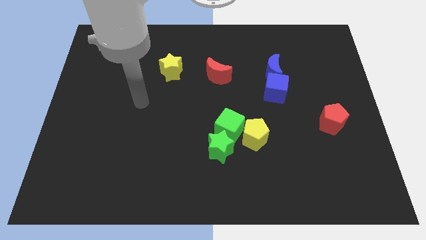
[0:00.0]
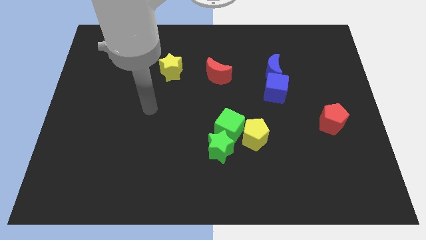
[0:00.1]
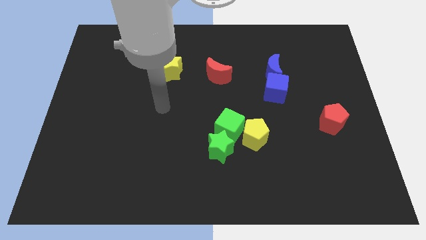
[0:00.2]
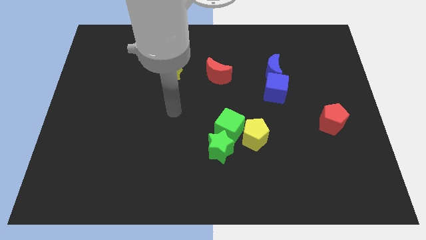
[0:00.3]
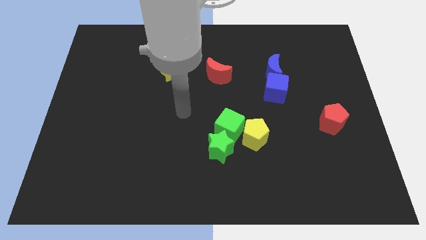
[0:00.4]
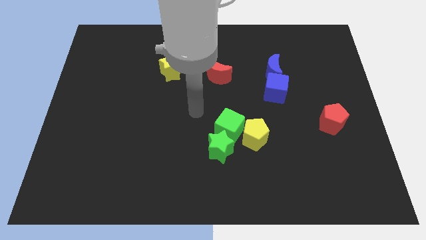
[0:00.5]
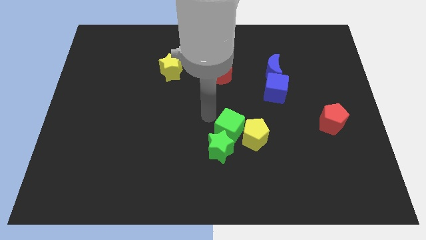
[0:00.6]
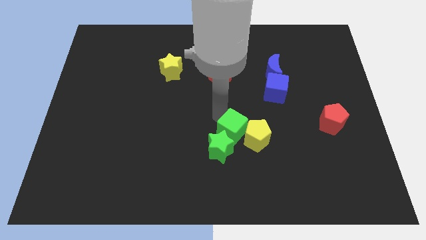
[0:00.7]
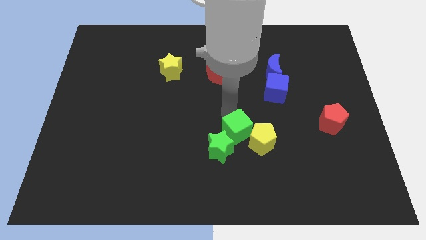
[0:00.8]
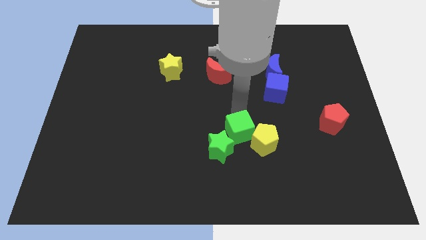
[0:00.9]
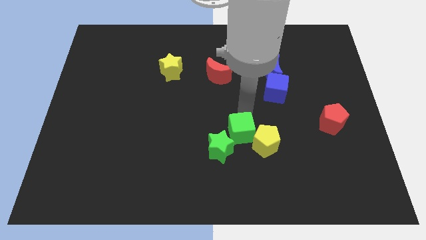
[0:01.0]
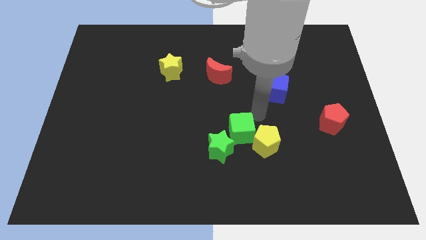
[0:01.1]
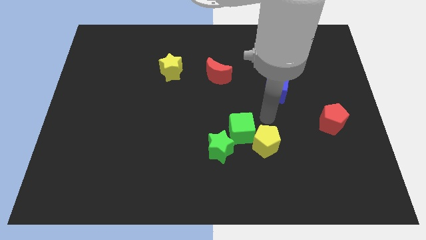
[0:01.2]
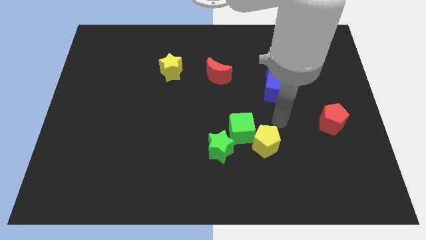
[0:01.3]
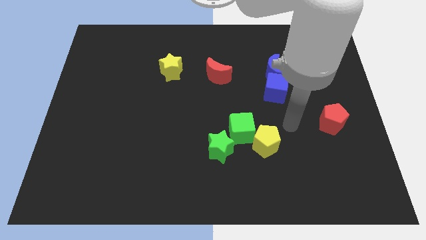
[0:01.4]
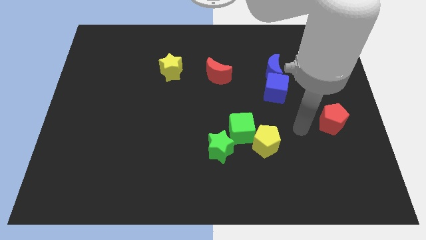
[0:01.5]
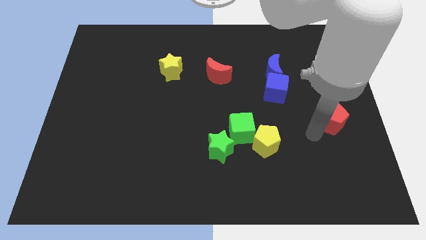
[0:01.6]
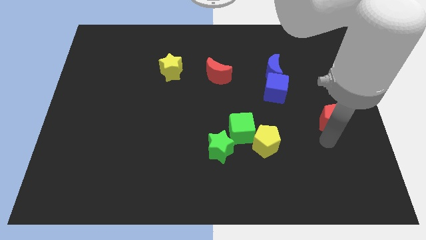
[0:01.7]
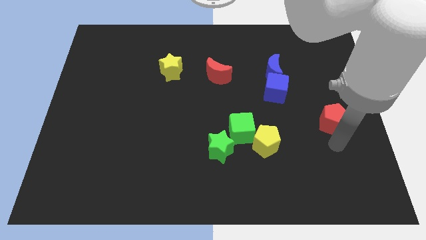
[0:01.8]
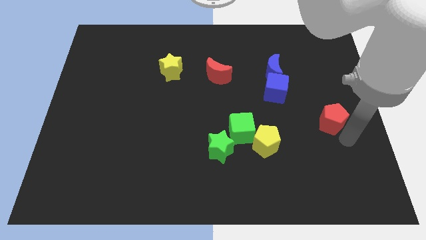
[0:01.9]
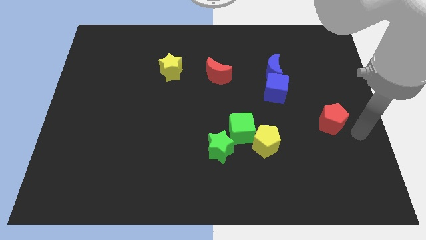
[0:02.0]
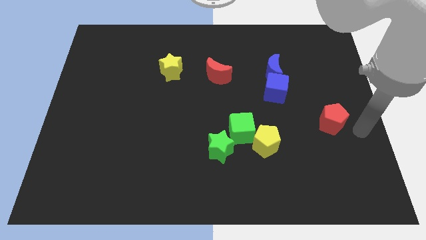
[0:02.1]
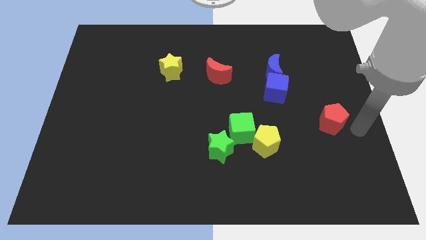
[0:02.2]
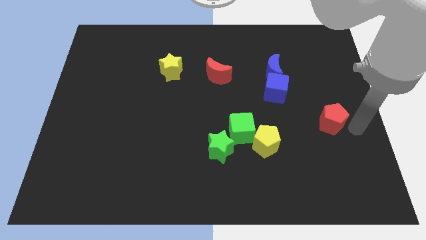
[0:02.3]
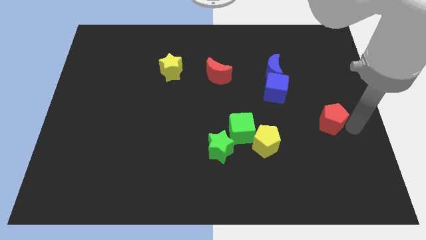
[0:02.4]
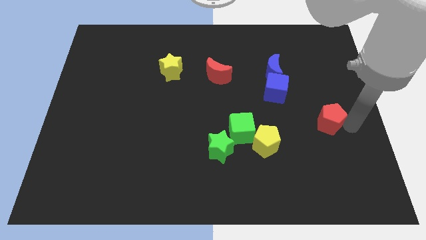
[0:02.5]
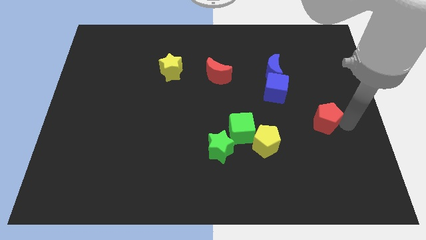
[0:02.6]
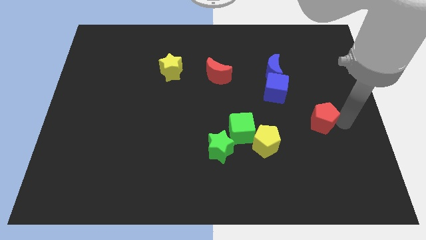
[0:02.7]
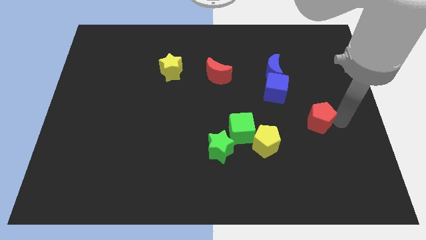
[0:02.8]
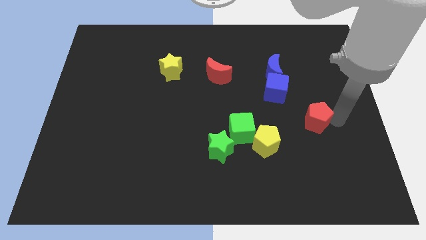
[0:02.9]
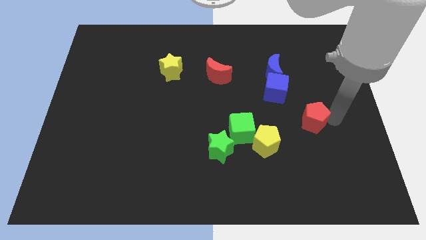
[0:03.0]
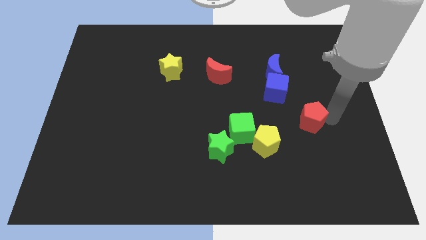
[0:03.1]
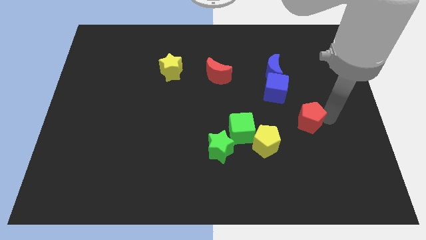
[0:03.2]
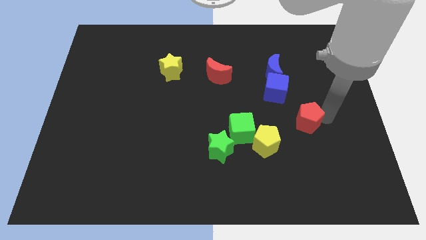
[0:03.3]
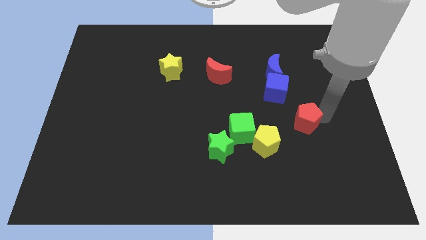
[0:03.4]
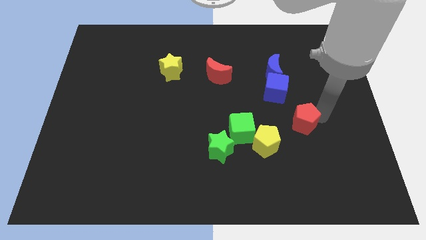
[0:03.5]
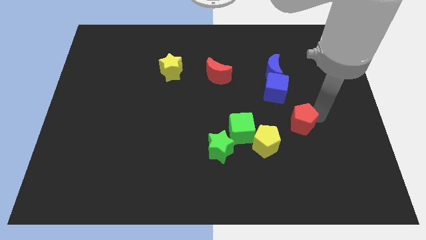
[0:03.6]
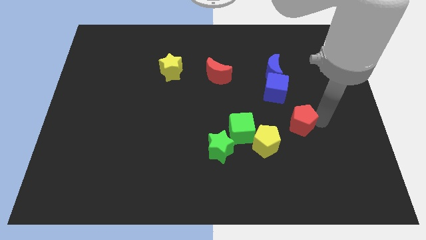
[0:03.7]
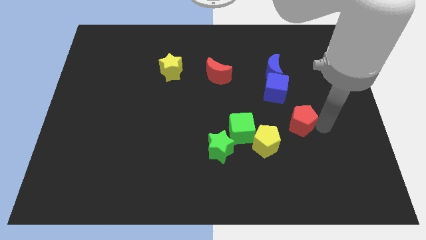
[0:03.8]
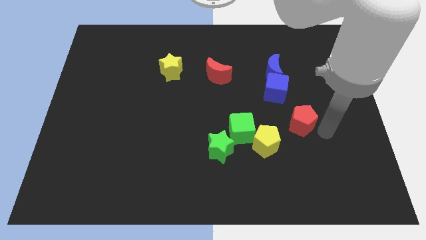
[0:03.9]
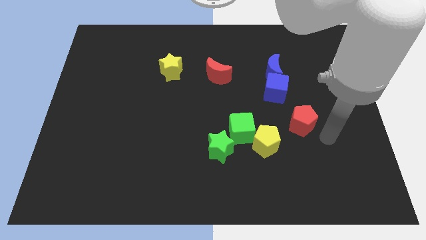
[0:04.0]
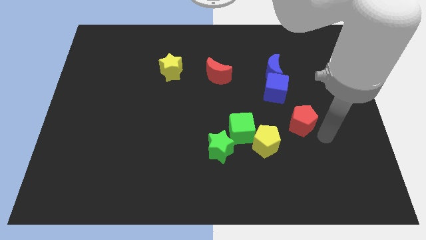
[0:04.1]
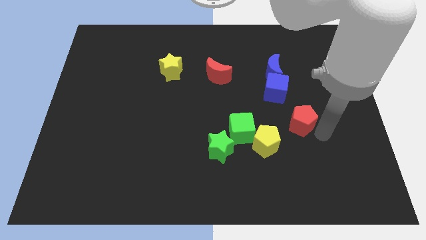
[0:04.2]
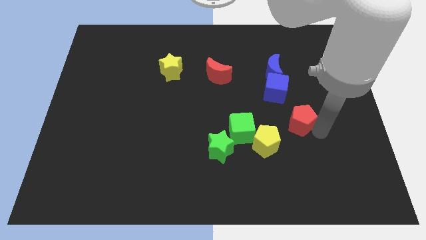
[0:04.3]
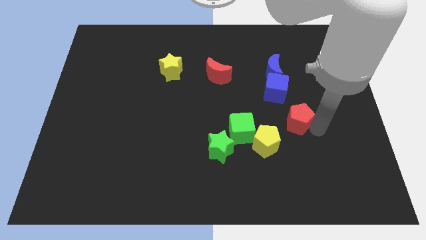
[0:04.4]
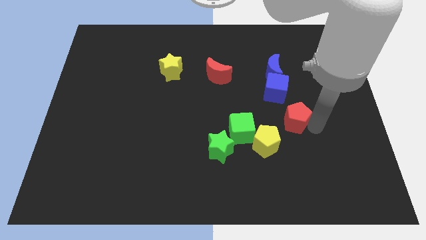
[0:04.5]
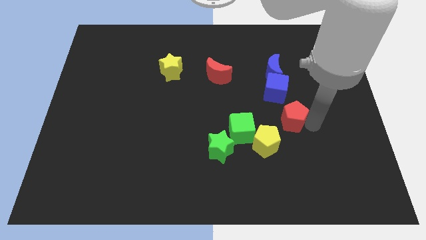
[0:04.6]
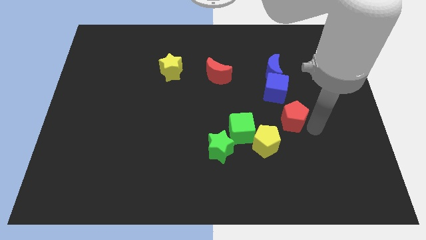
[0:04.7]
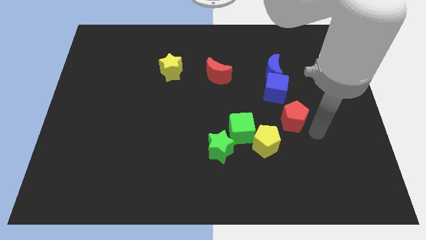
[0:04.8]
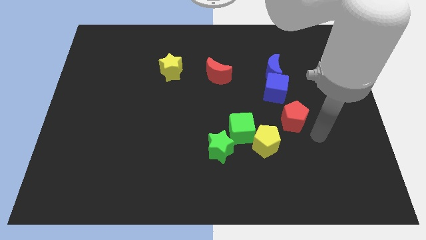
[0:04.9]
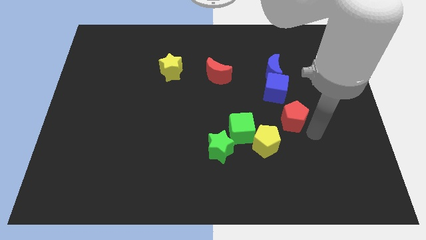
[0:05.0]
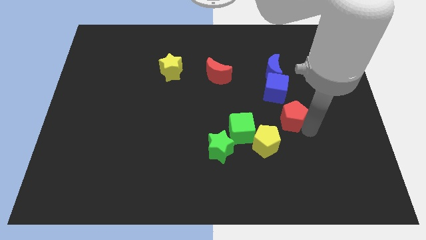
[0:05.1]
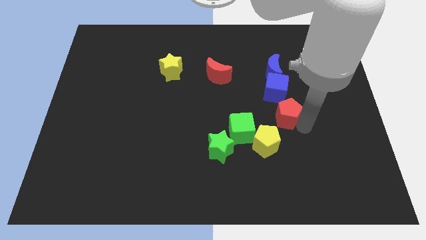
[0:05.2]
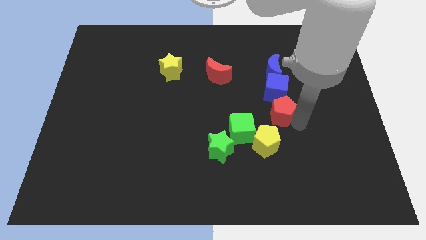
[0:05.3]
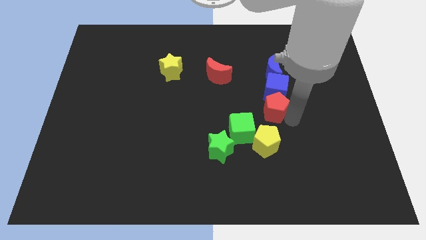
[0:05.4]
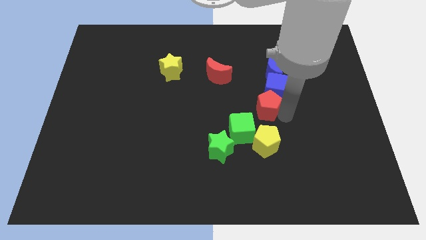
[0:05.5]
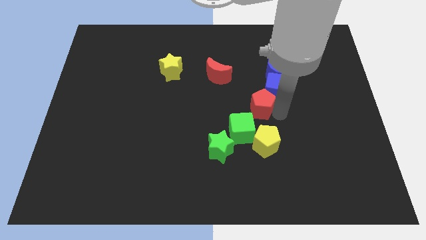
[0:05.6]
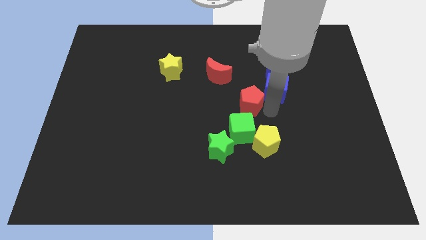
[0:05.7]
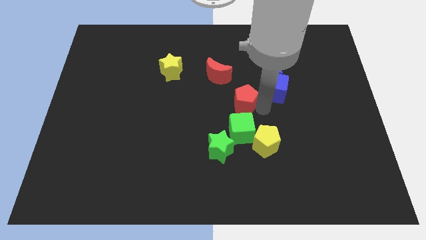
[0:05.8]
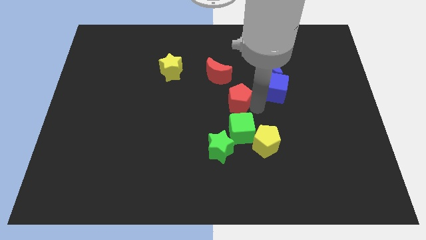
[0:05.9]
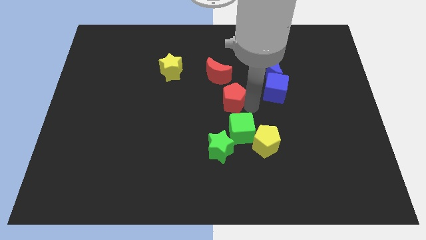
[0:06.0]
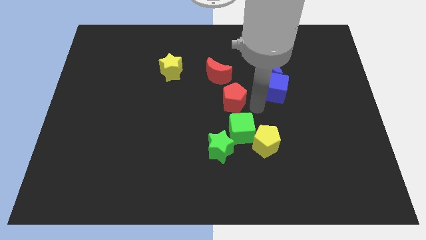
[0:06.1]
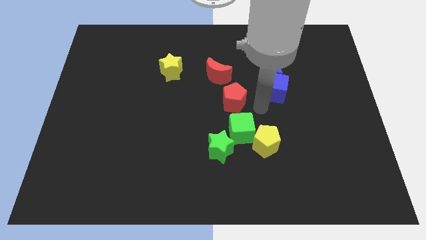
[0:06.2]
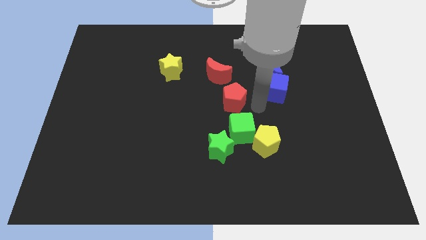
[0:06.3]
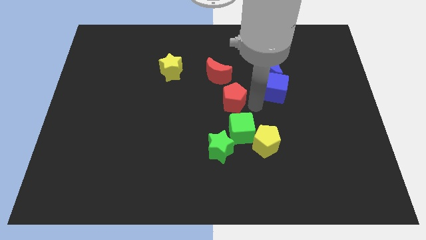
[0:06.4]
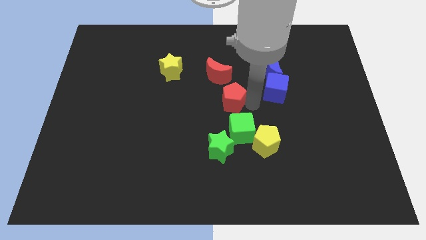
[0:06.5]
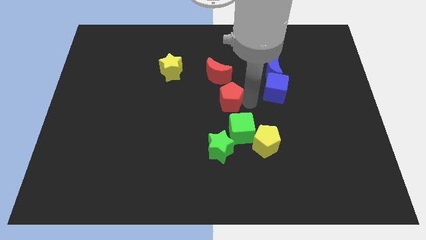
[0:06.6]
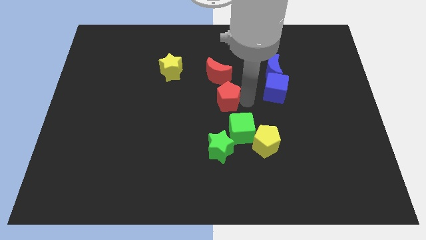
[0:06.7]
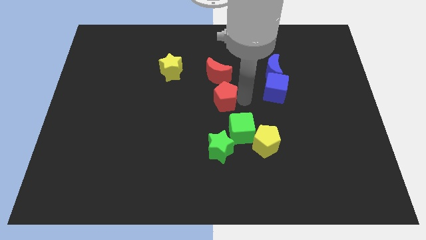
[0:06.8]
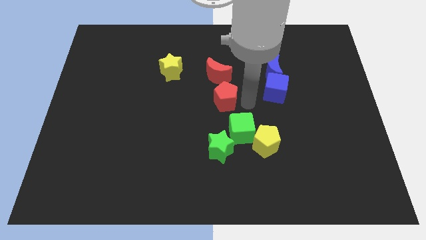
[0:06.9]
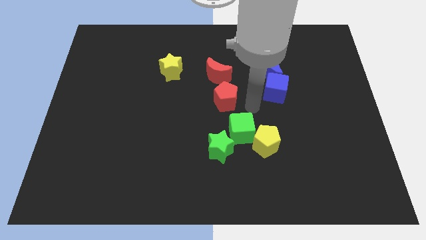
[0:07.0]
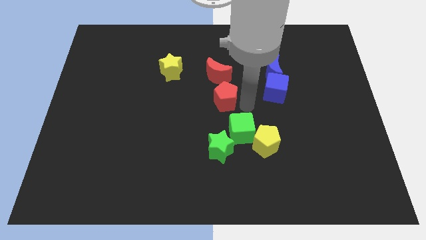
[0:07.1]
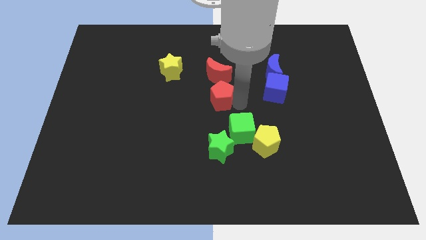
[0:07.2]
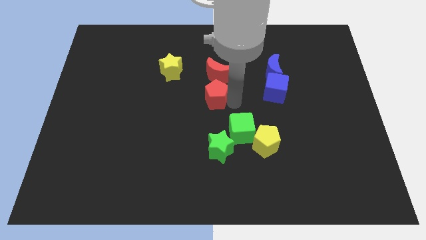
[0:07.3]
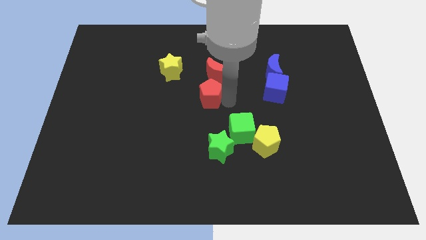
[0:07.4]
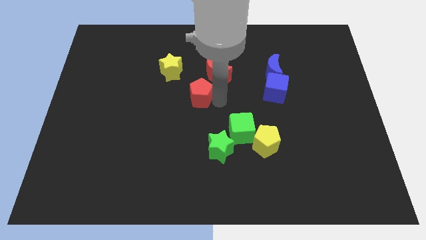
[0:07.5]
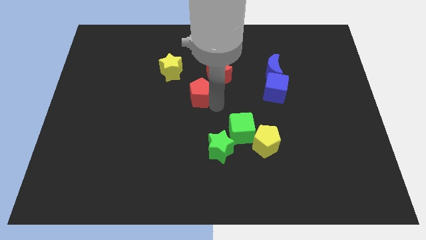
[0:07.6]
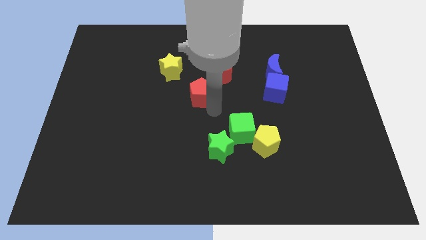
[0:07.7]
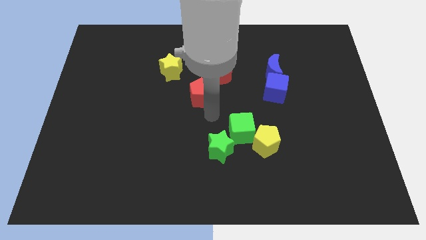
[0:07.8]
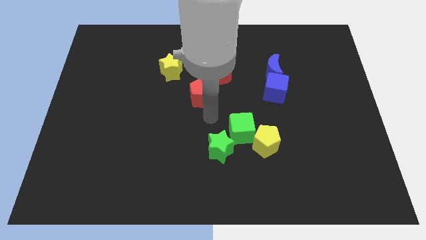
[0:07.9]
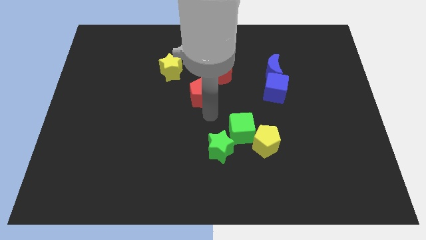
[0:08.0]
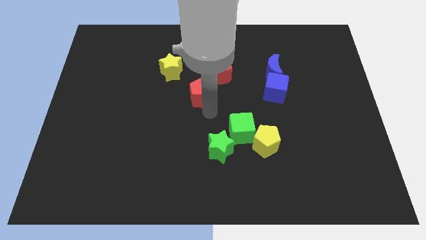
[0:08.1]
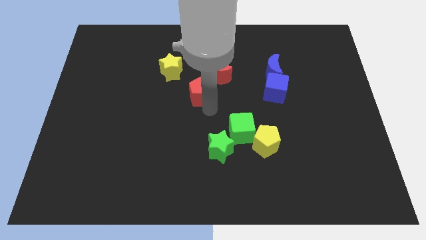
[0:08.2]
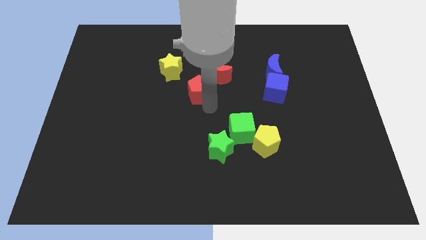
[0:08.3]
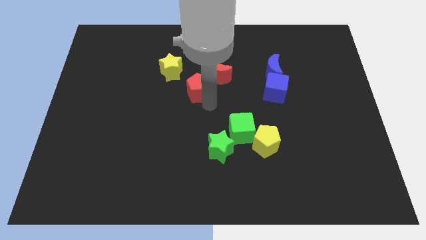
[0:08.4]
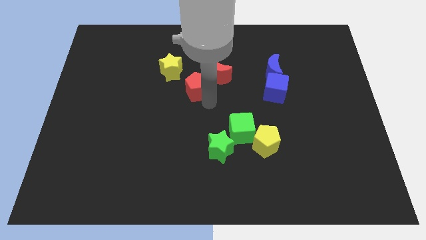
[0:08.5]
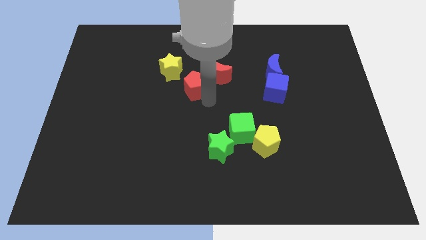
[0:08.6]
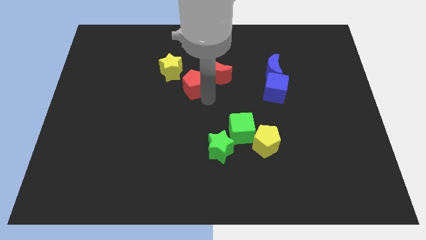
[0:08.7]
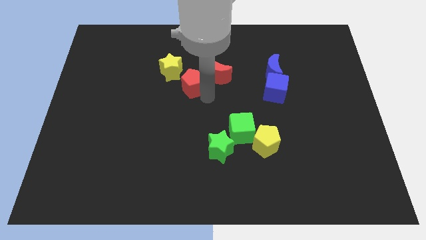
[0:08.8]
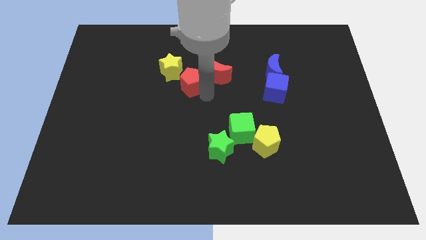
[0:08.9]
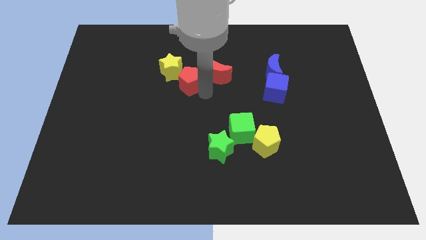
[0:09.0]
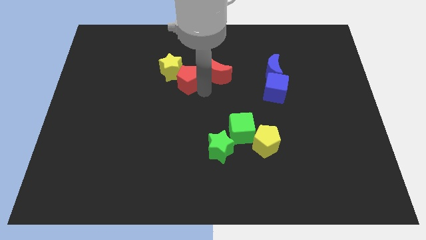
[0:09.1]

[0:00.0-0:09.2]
slide the red pentagon next to the yellow star
